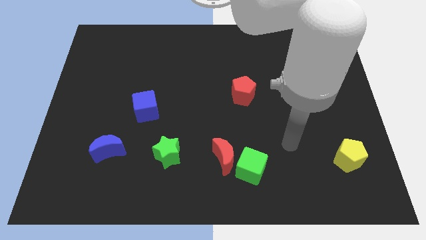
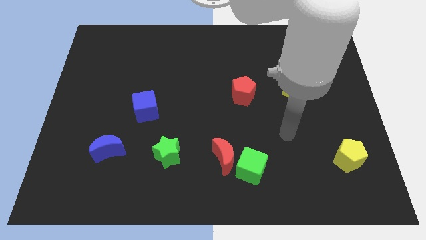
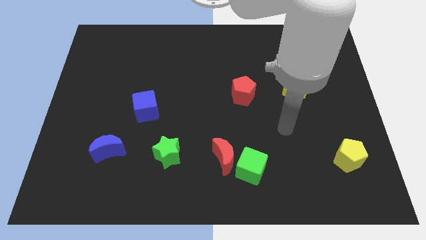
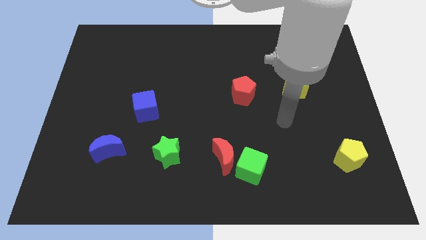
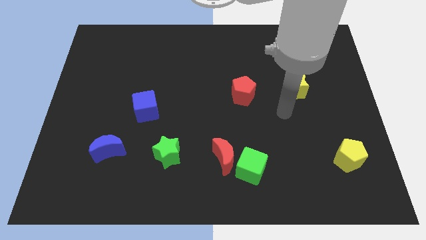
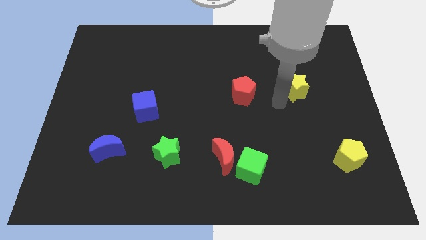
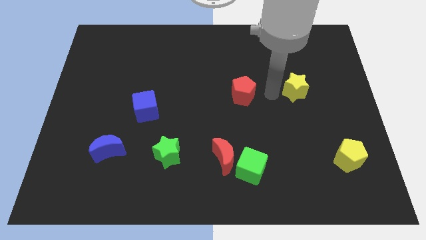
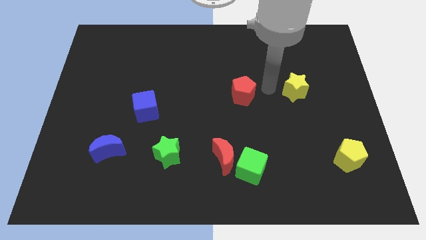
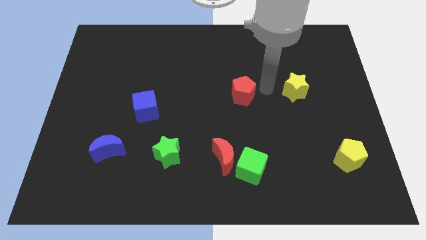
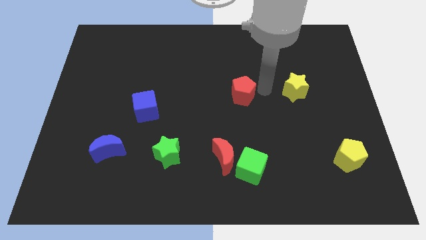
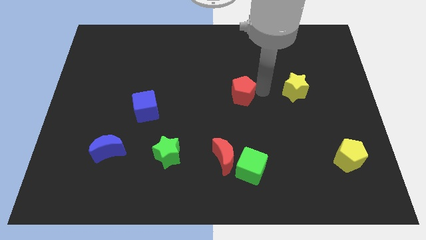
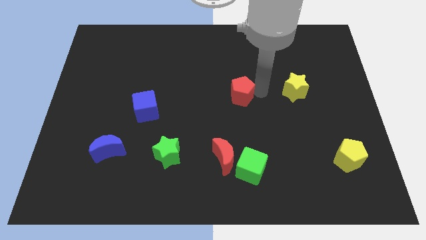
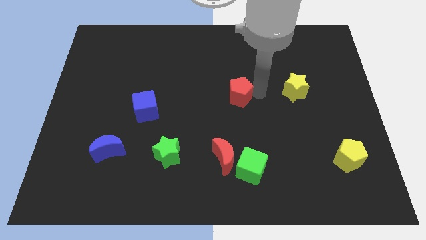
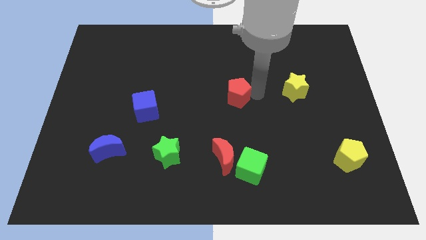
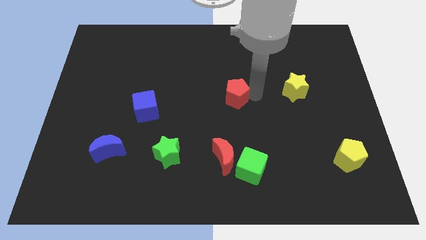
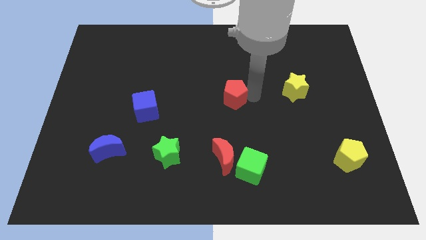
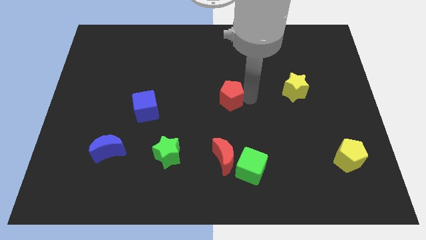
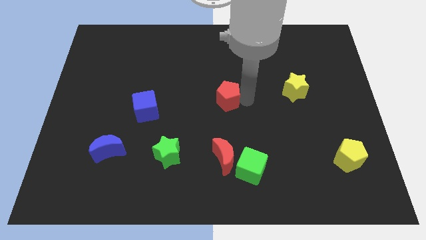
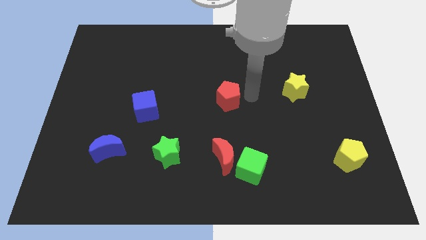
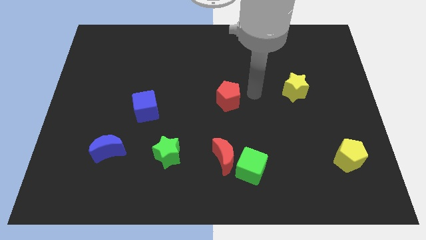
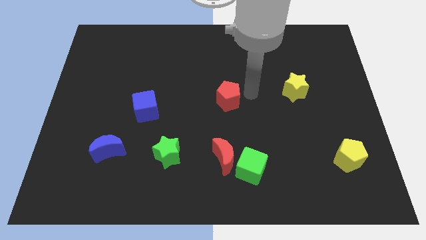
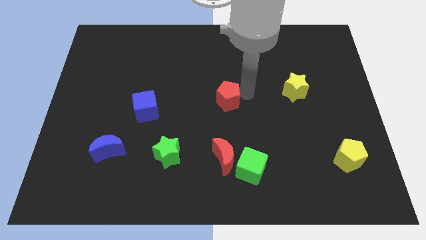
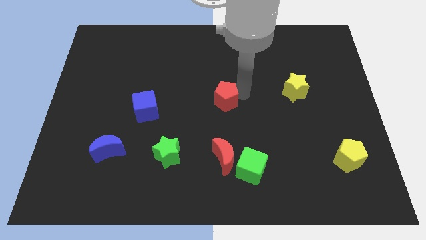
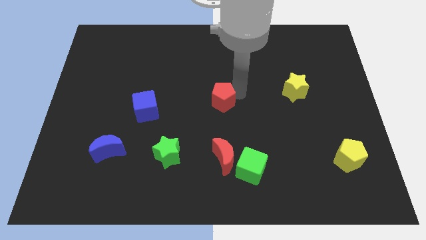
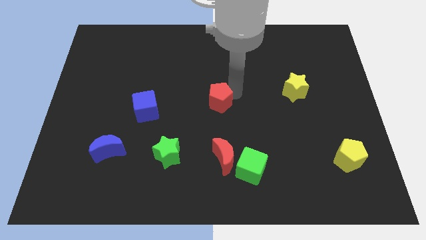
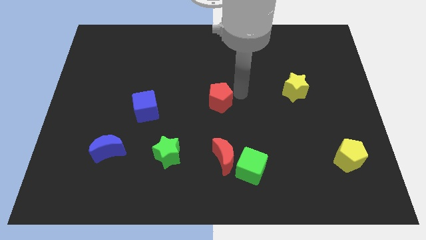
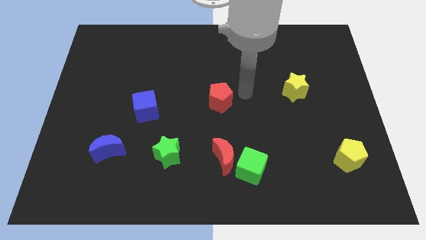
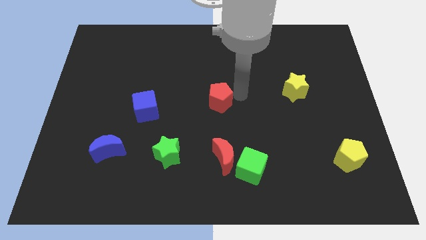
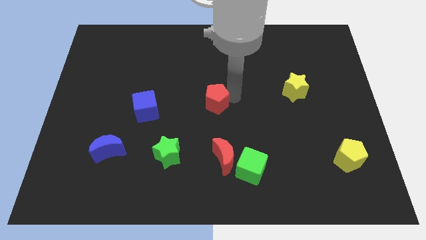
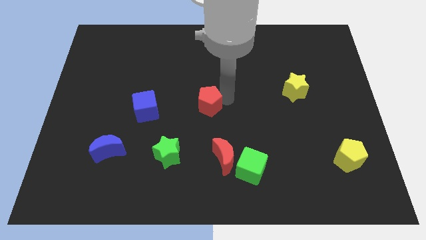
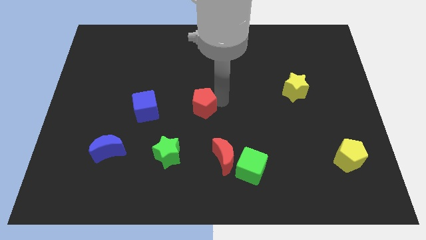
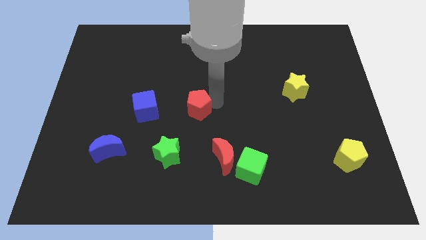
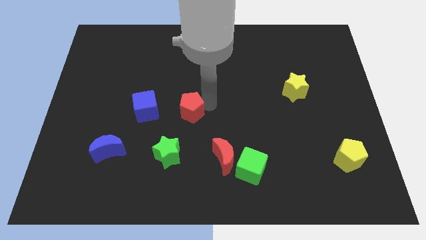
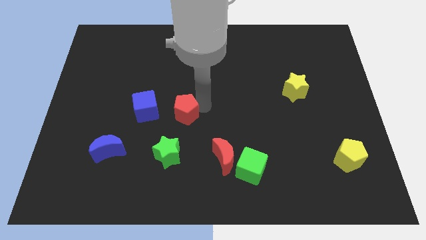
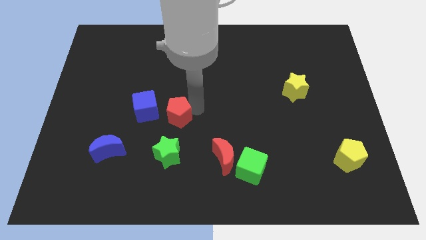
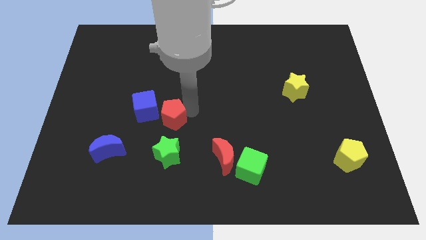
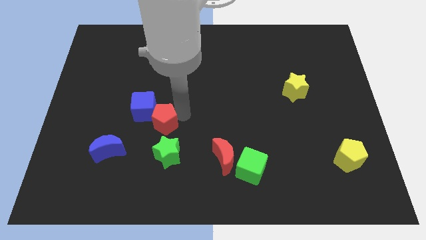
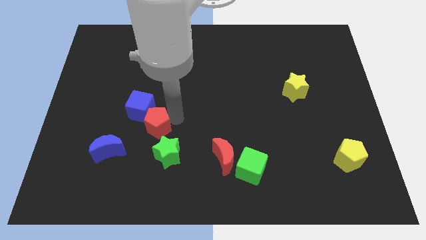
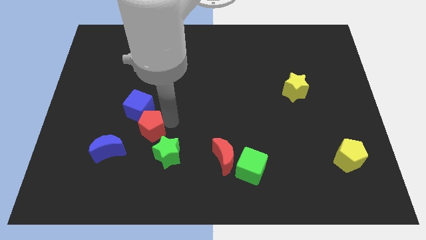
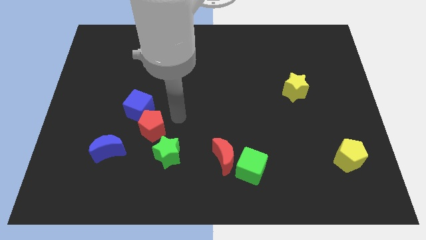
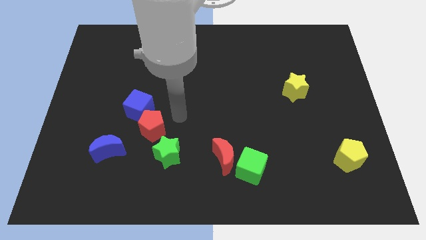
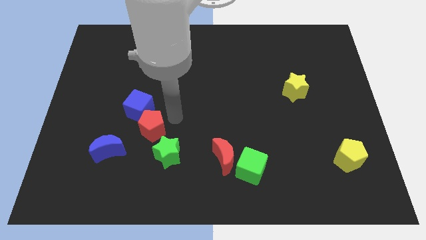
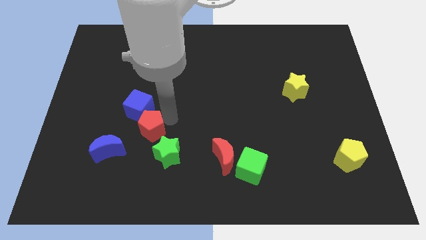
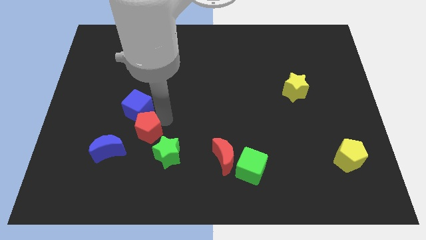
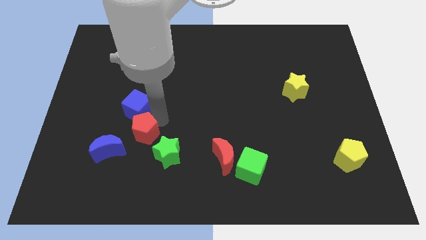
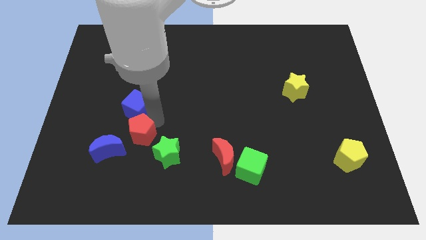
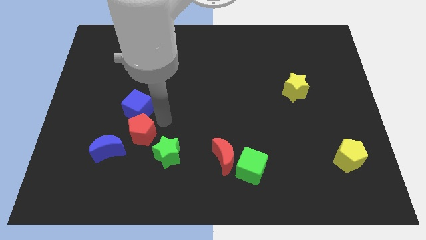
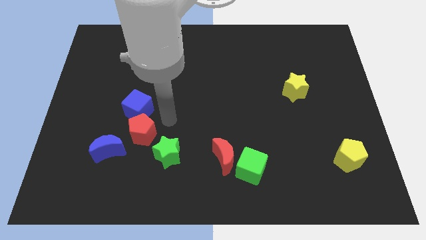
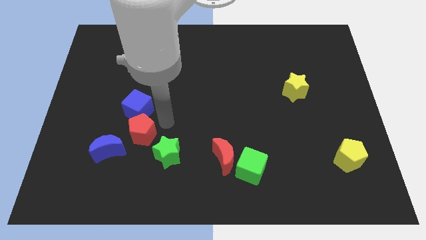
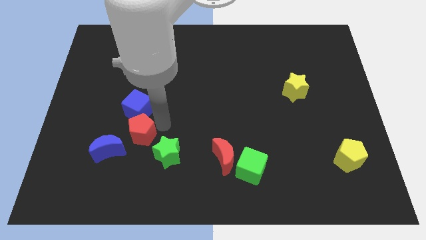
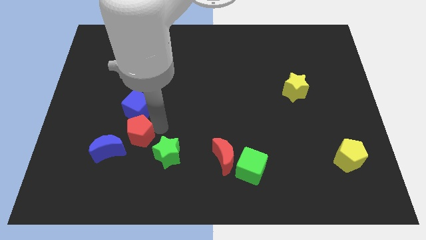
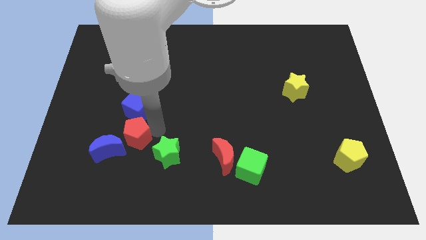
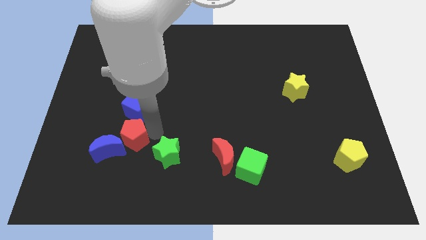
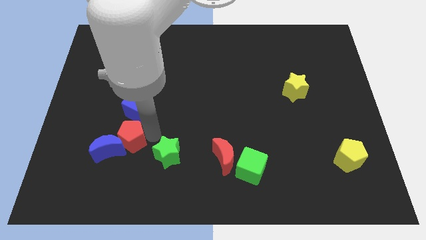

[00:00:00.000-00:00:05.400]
put the red pentagon next to the blue moon

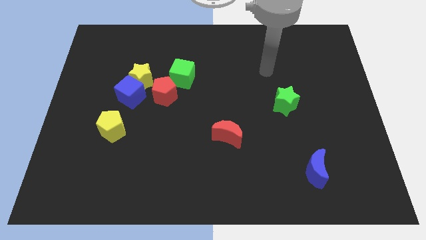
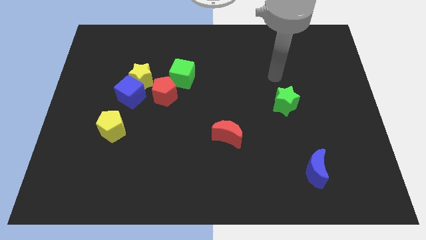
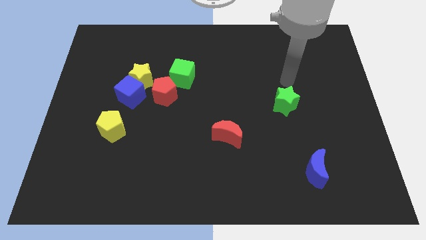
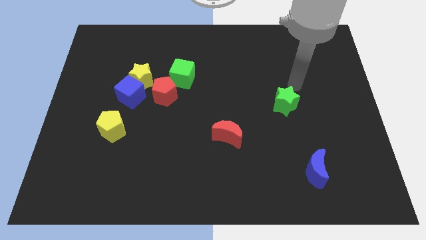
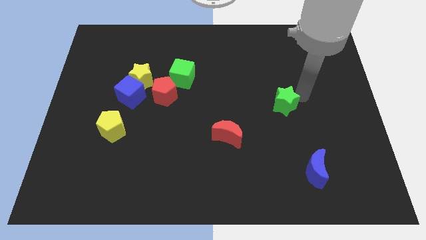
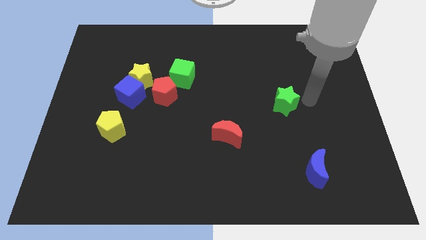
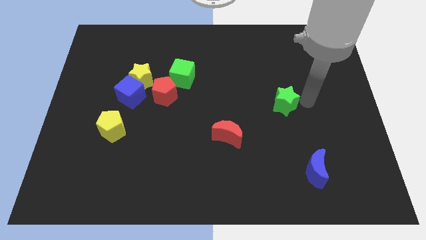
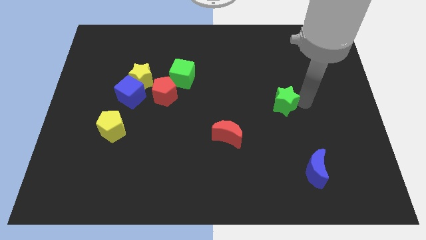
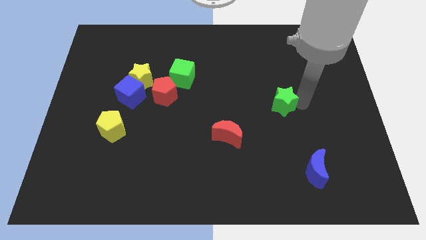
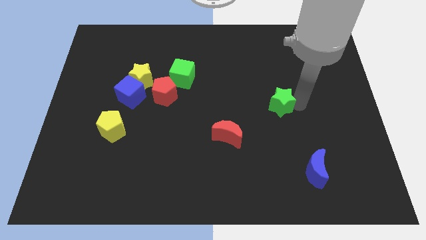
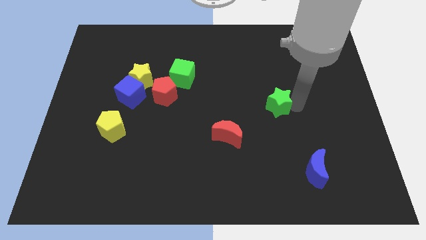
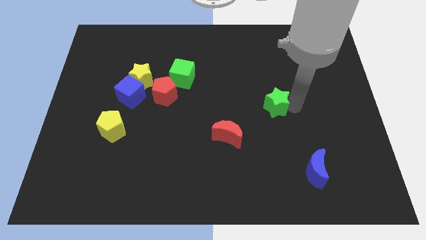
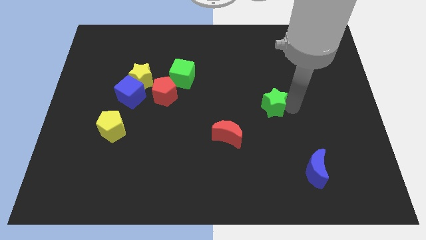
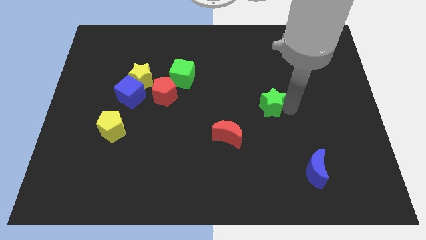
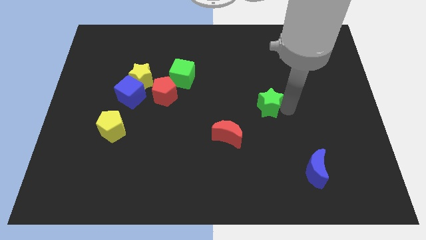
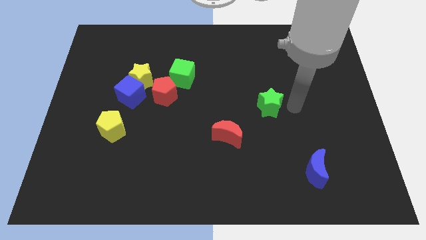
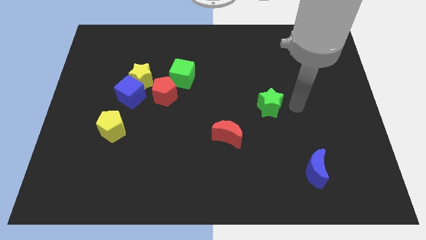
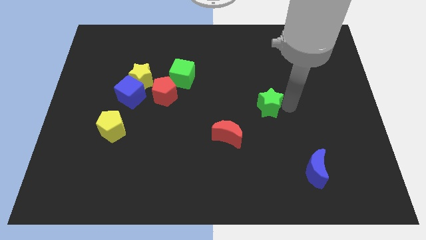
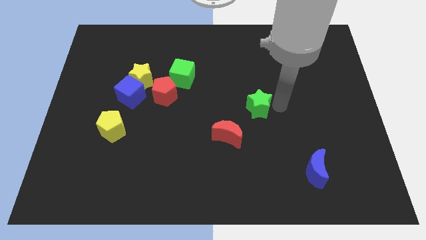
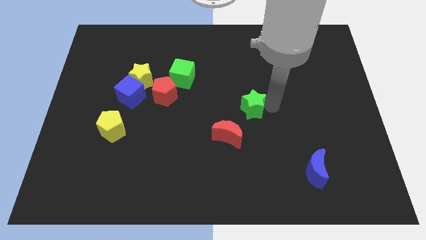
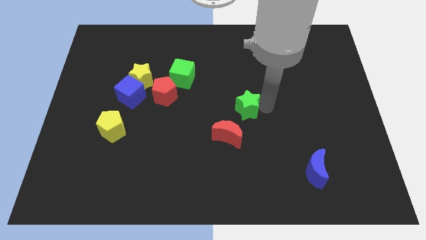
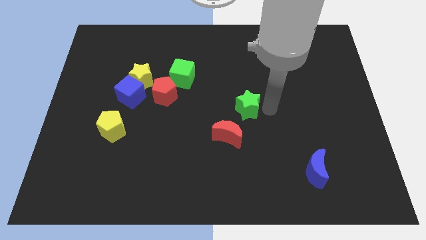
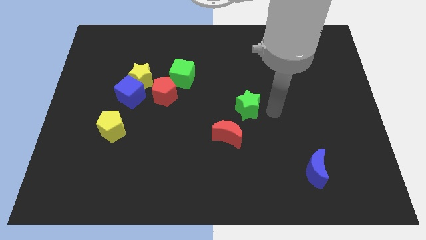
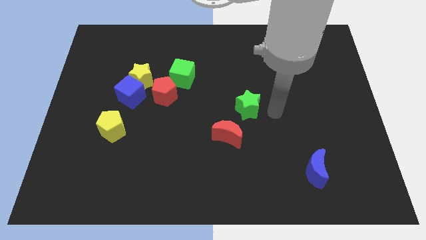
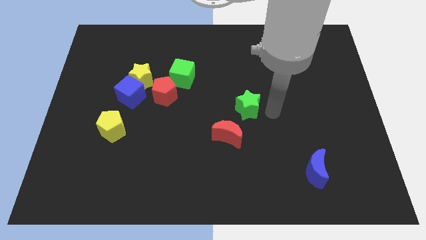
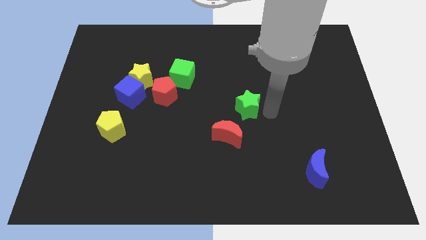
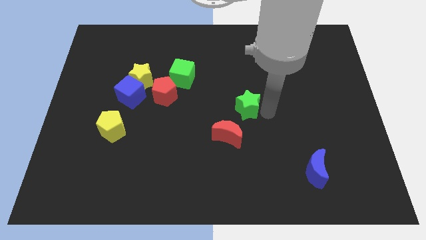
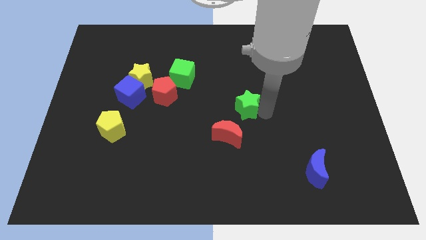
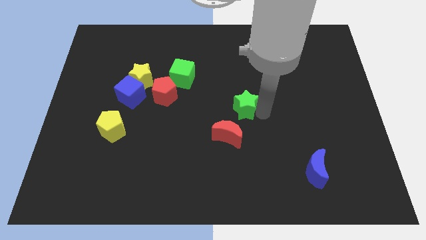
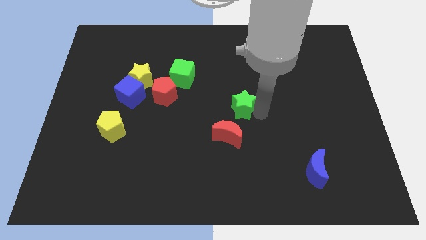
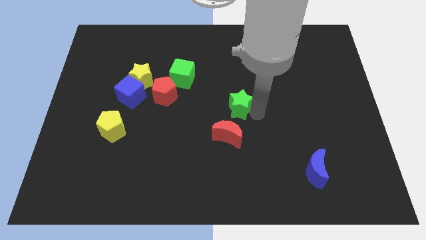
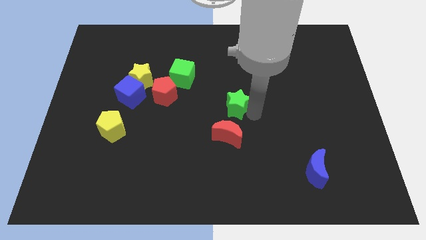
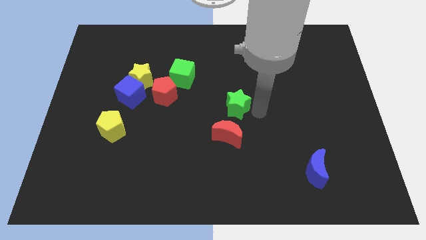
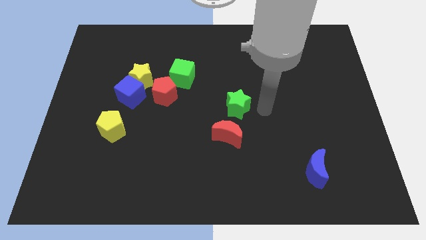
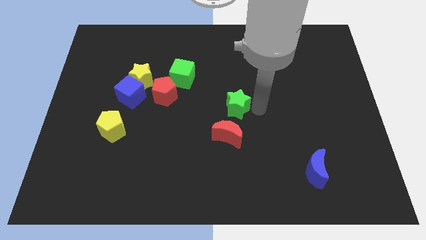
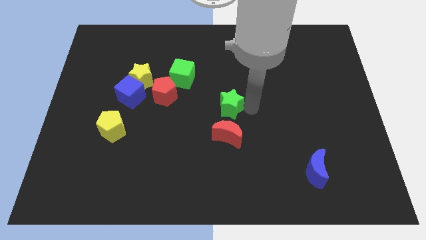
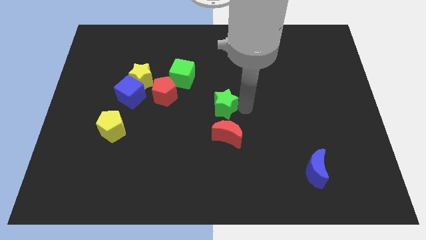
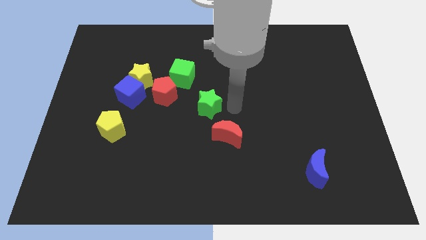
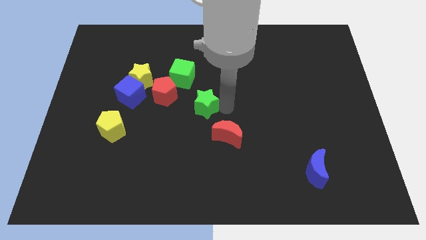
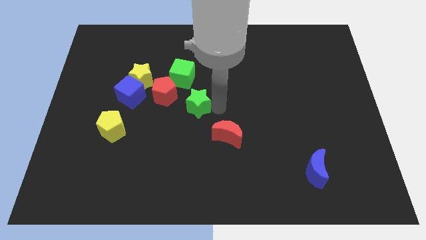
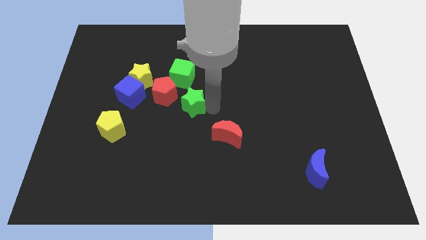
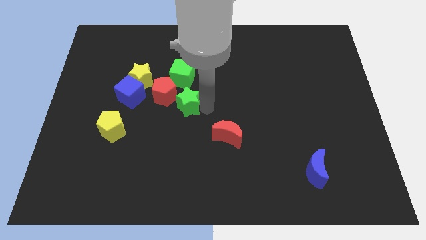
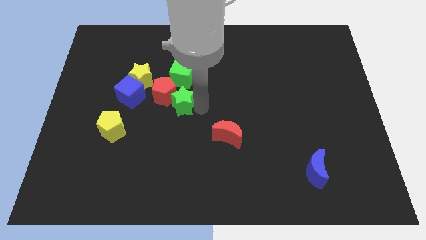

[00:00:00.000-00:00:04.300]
put the green star to the red pentagon
